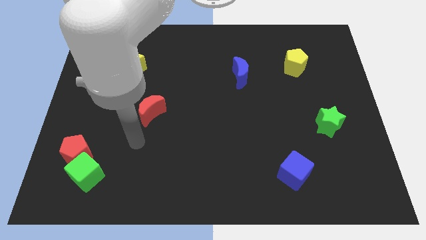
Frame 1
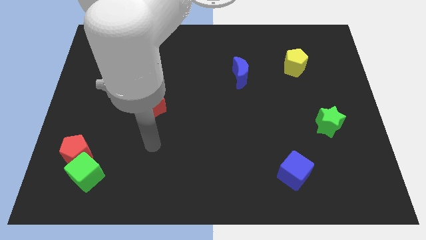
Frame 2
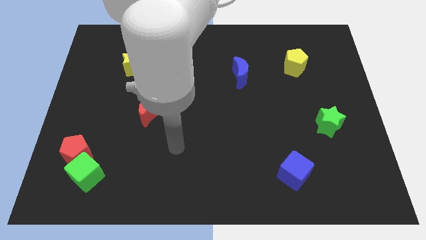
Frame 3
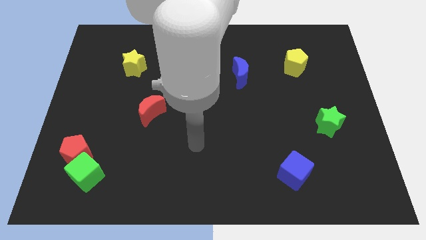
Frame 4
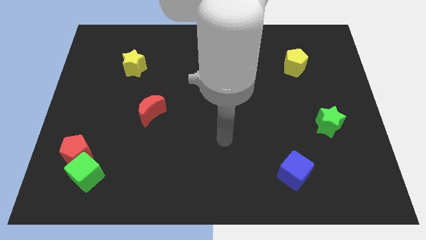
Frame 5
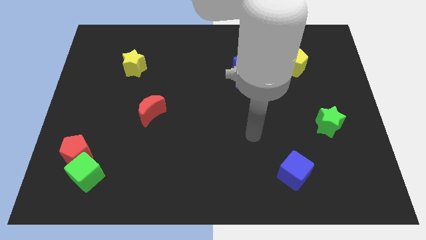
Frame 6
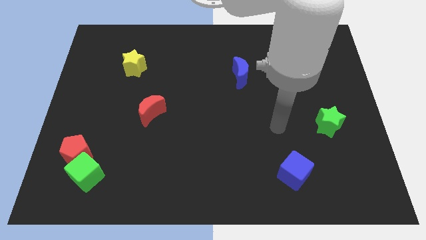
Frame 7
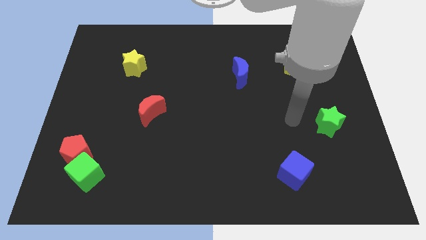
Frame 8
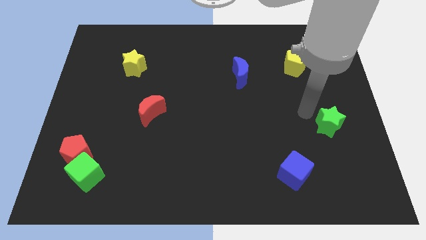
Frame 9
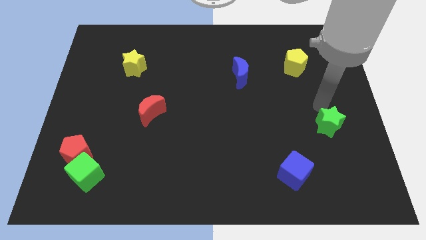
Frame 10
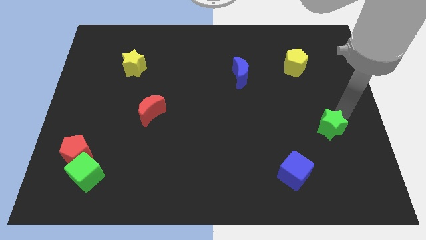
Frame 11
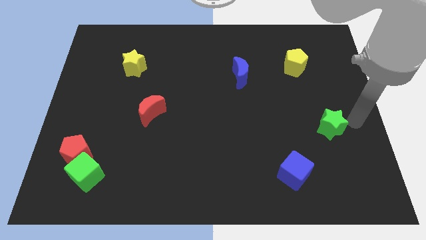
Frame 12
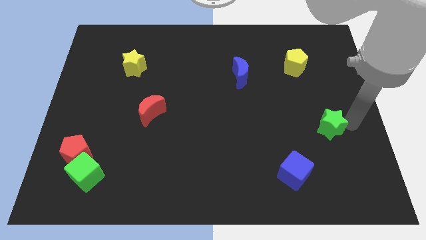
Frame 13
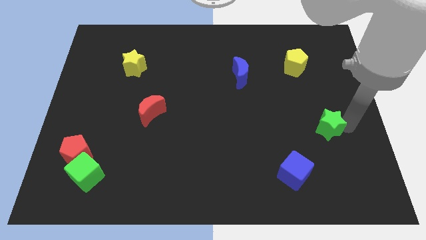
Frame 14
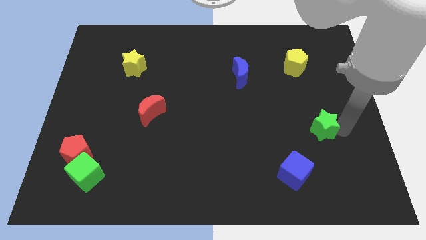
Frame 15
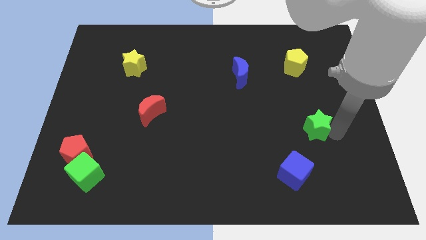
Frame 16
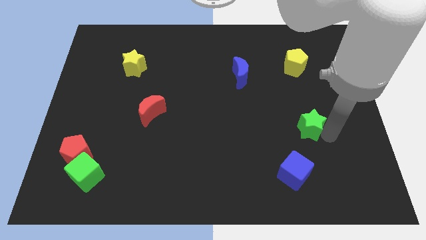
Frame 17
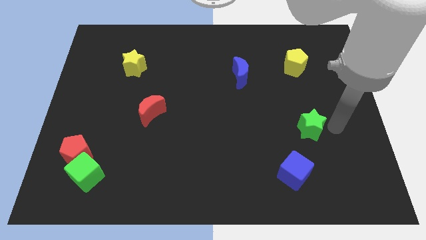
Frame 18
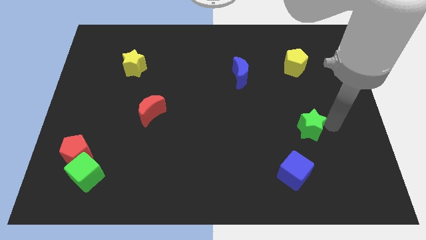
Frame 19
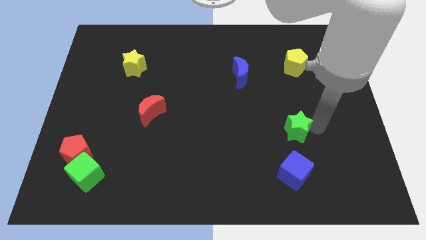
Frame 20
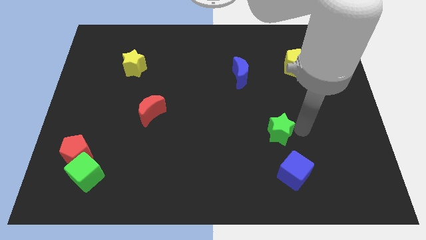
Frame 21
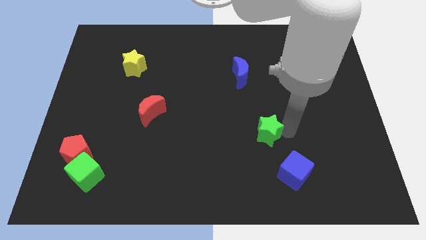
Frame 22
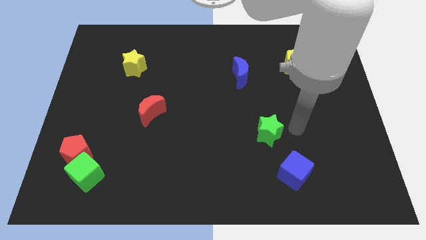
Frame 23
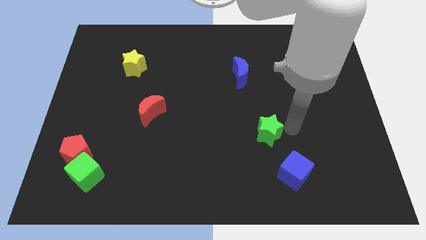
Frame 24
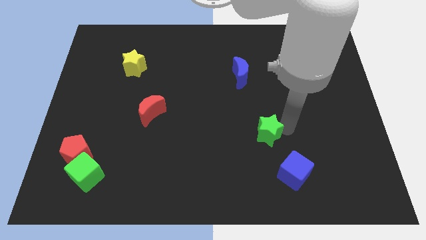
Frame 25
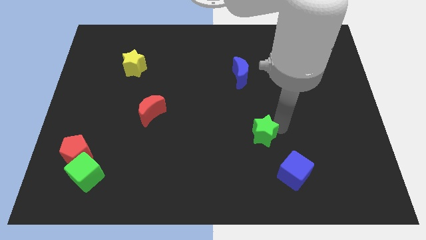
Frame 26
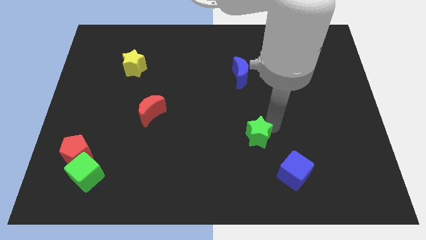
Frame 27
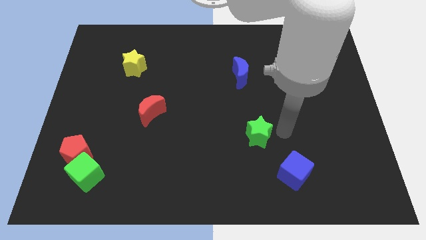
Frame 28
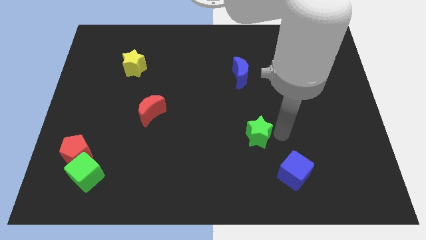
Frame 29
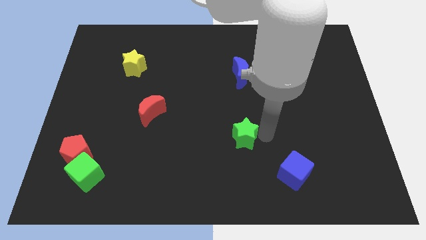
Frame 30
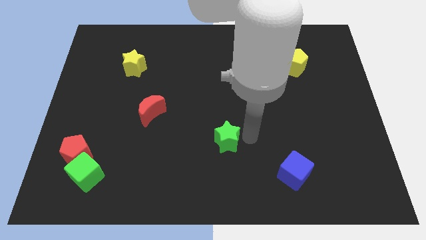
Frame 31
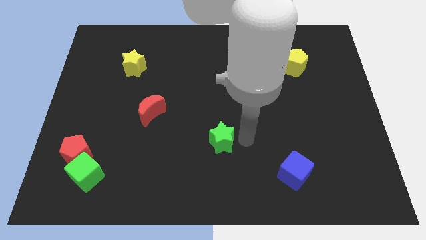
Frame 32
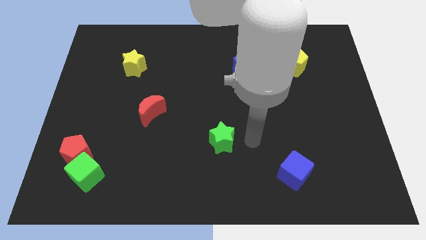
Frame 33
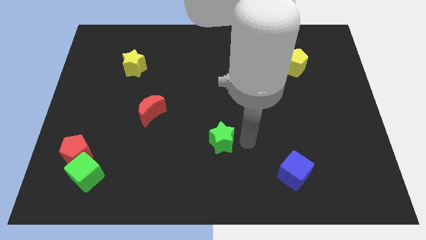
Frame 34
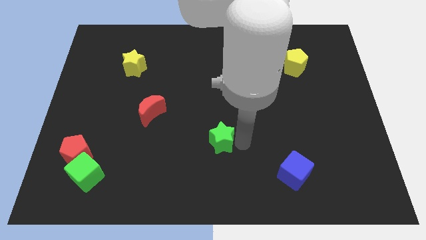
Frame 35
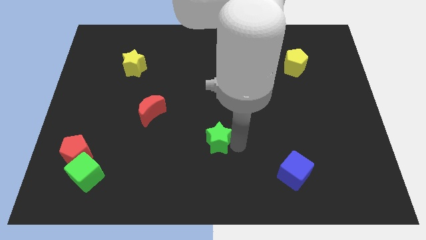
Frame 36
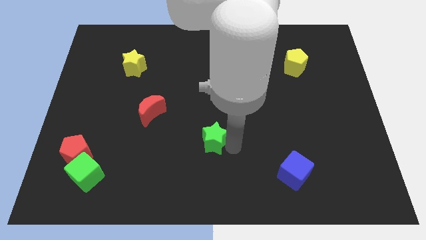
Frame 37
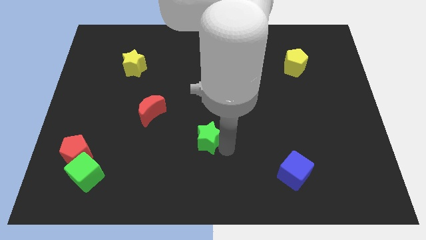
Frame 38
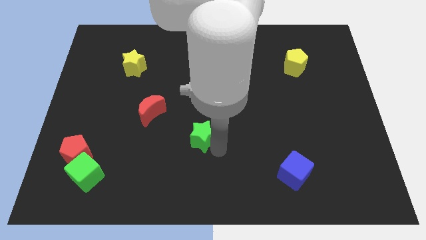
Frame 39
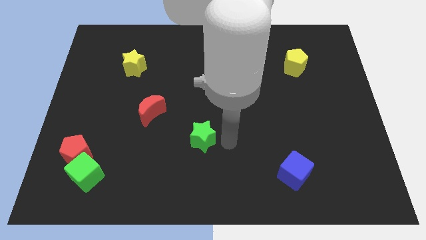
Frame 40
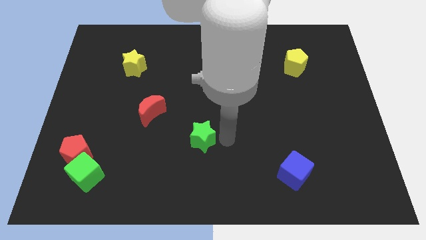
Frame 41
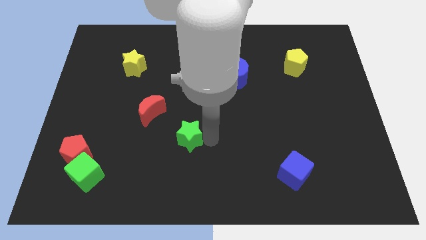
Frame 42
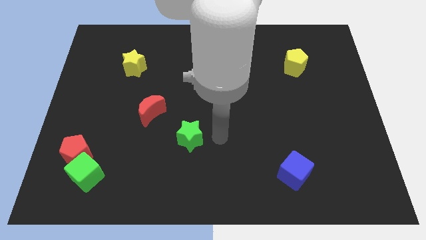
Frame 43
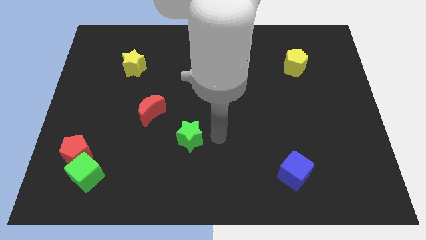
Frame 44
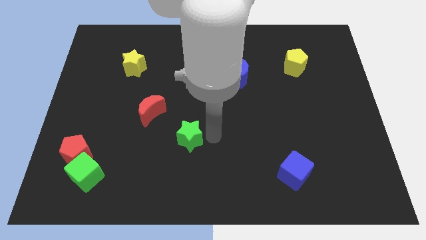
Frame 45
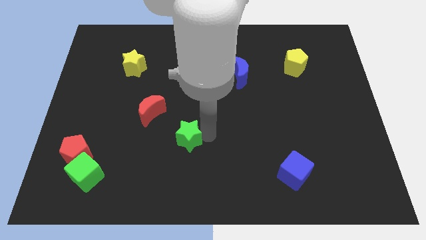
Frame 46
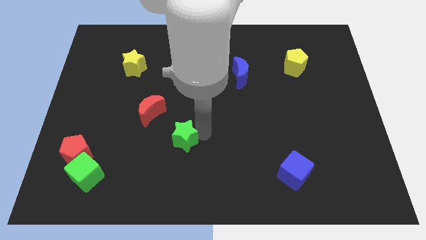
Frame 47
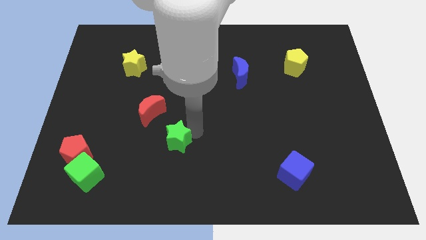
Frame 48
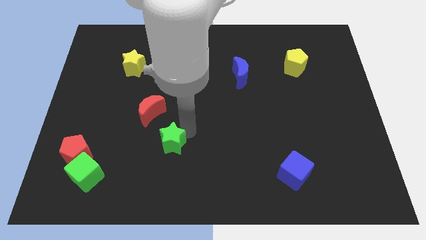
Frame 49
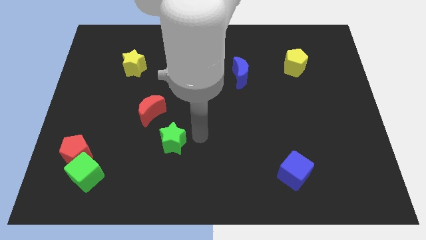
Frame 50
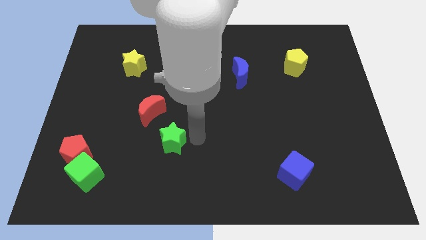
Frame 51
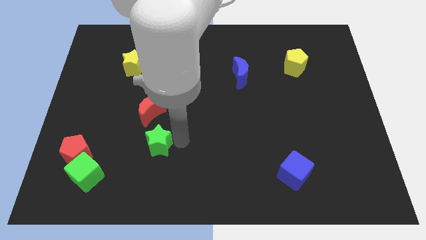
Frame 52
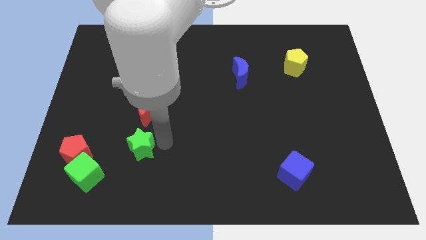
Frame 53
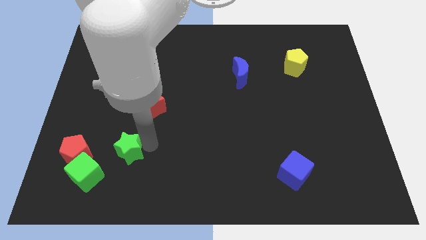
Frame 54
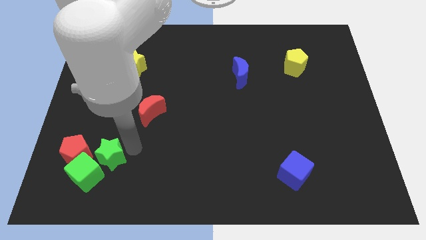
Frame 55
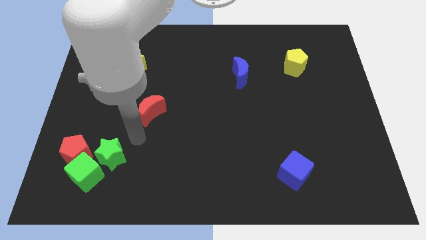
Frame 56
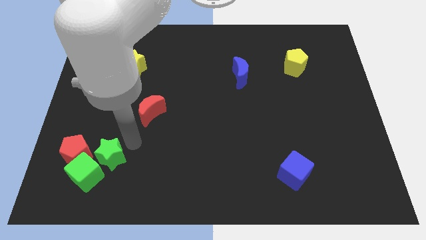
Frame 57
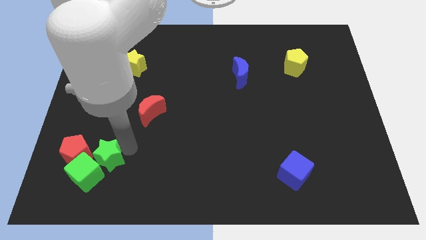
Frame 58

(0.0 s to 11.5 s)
push the green star next to the green cube
